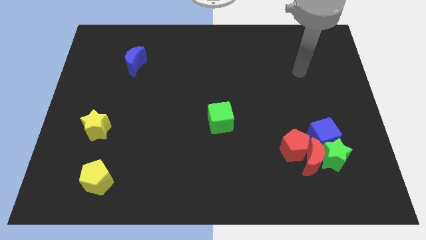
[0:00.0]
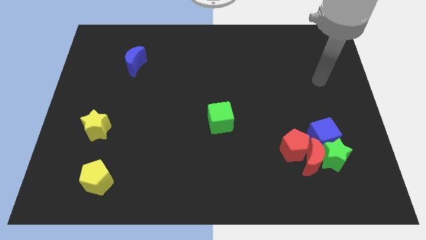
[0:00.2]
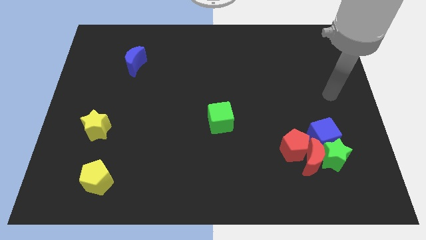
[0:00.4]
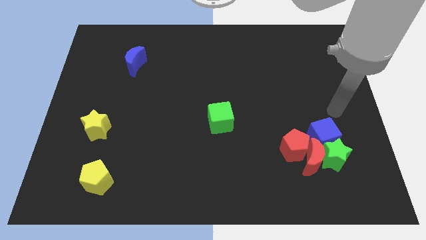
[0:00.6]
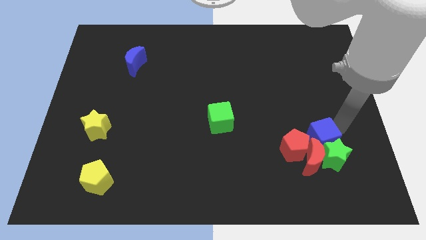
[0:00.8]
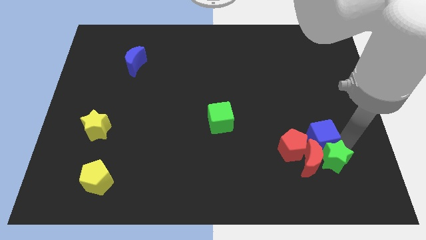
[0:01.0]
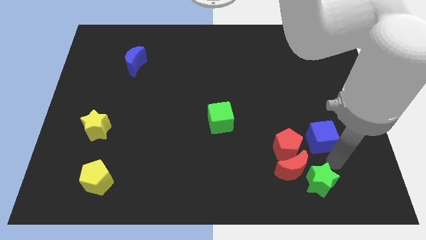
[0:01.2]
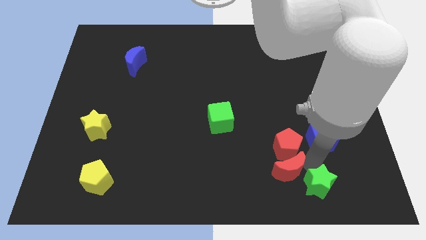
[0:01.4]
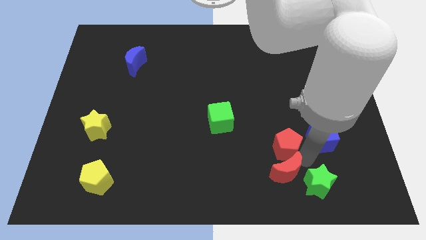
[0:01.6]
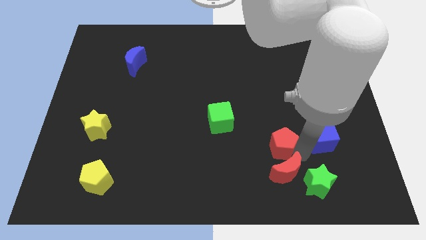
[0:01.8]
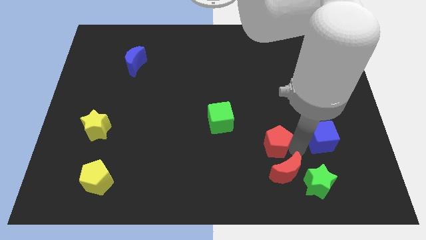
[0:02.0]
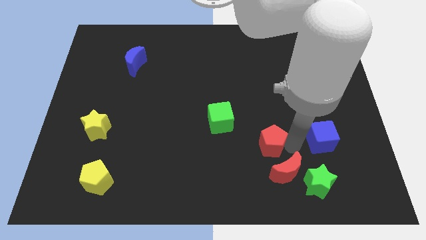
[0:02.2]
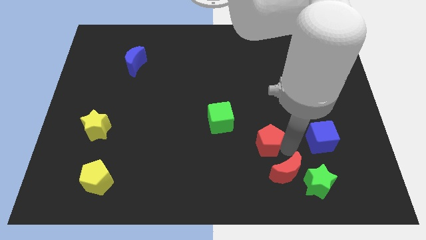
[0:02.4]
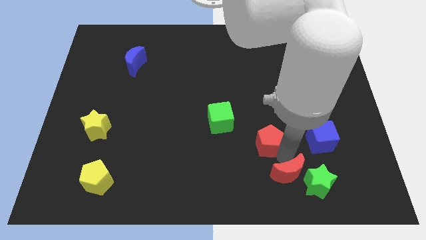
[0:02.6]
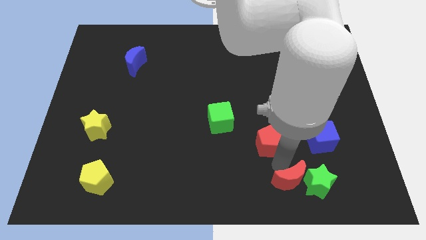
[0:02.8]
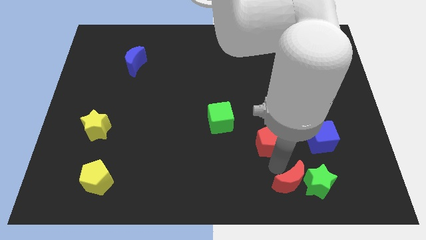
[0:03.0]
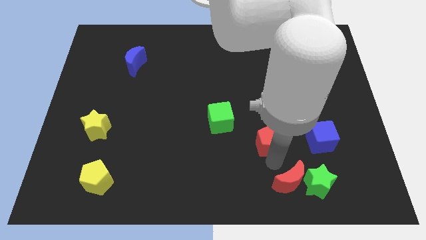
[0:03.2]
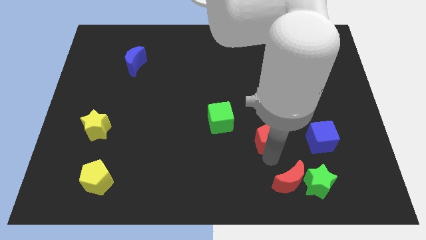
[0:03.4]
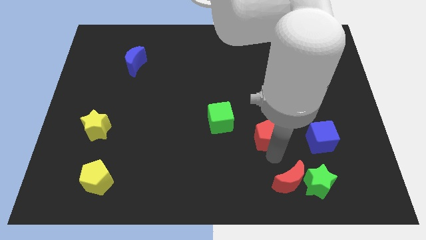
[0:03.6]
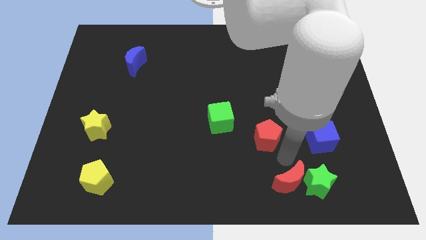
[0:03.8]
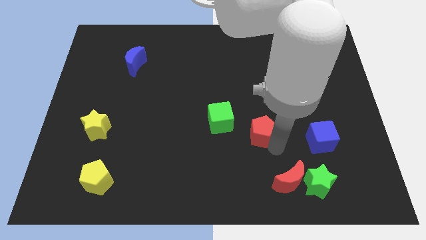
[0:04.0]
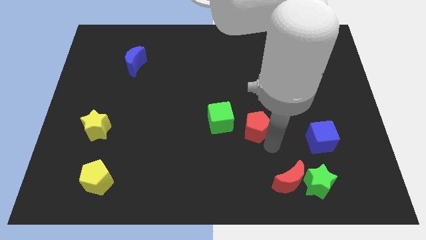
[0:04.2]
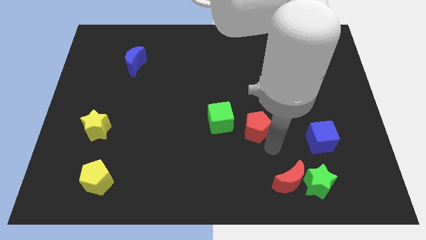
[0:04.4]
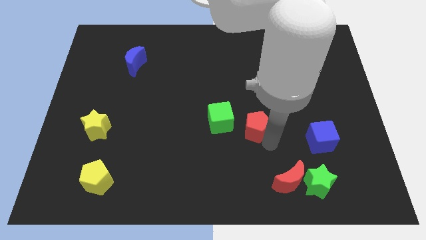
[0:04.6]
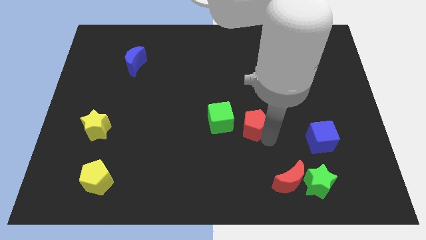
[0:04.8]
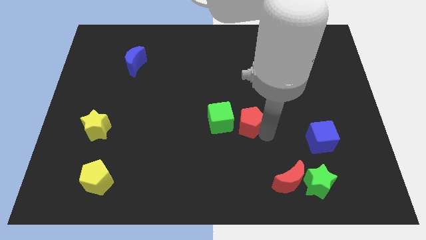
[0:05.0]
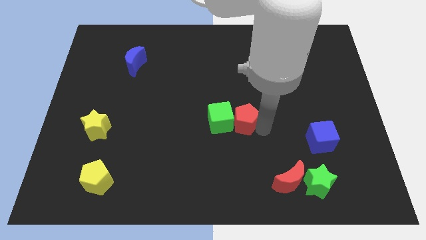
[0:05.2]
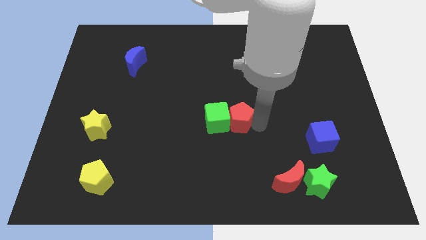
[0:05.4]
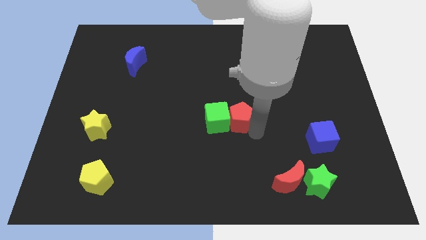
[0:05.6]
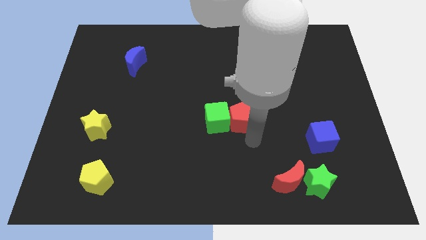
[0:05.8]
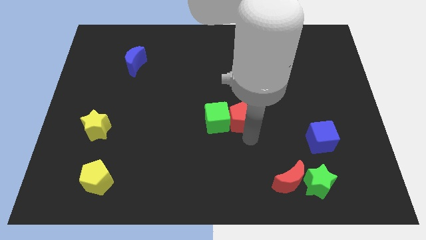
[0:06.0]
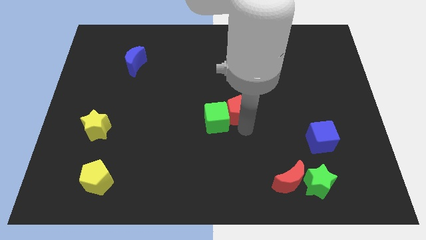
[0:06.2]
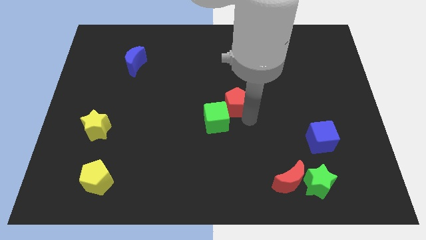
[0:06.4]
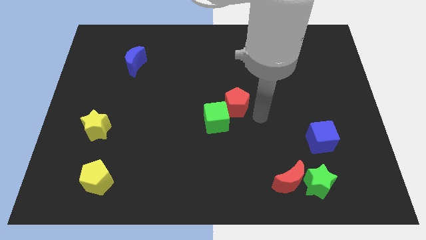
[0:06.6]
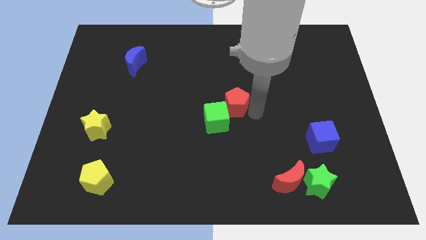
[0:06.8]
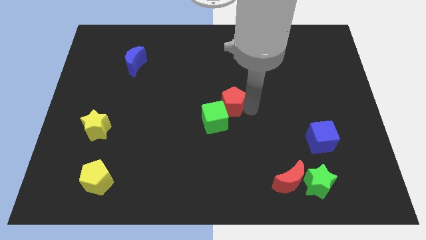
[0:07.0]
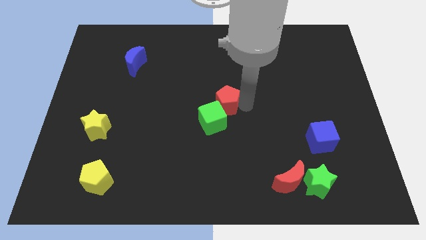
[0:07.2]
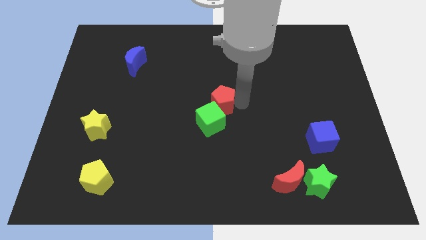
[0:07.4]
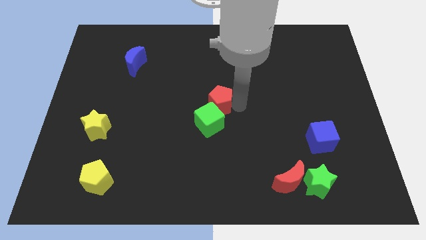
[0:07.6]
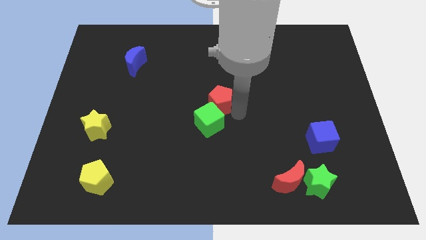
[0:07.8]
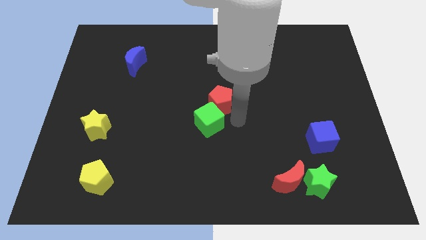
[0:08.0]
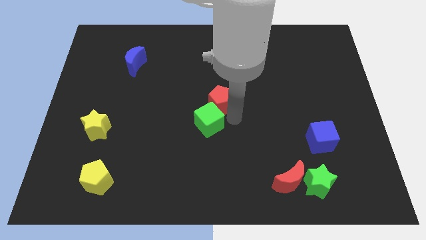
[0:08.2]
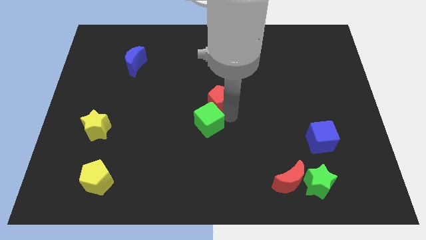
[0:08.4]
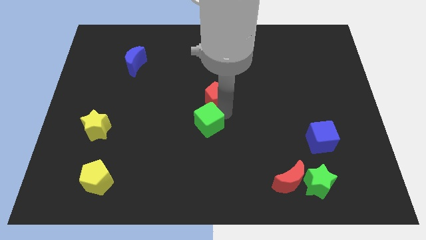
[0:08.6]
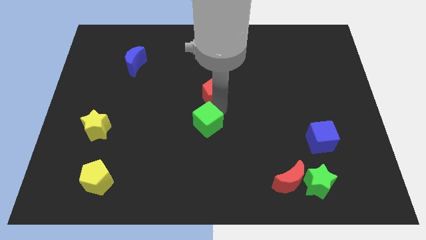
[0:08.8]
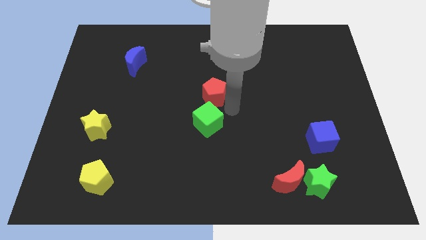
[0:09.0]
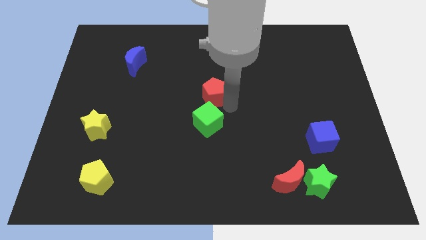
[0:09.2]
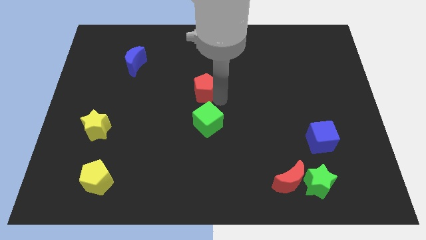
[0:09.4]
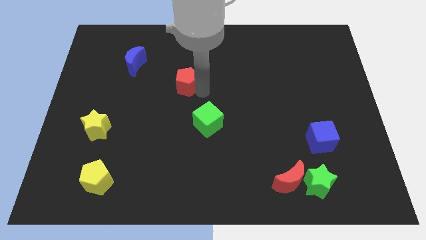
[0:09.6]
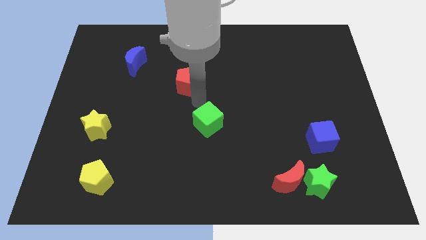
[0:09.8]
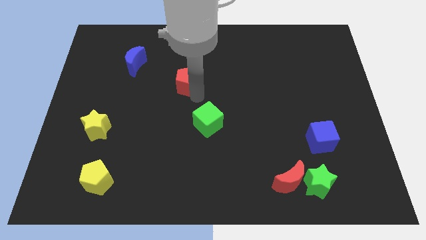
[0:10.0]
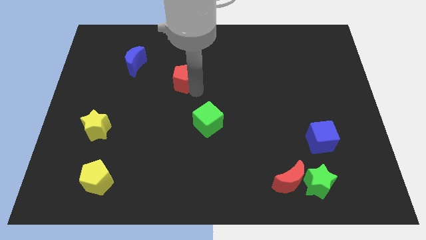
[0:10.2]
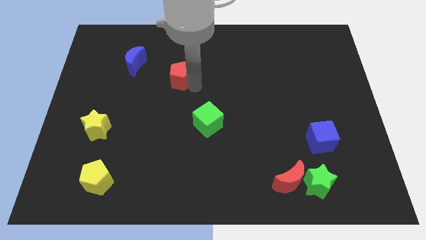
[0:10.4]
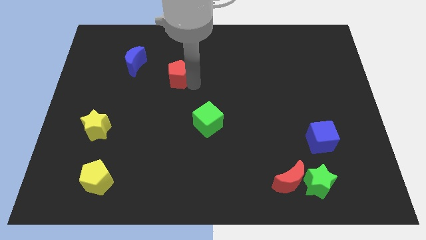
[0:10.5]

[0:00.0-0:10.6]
push the red pentagon to the right side of the blue moon

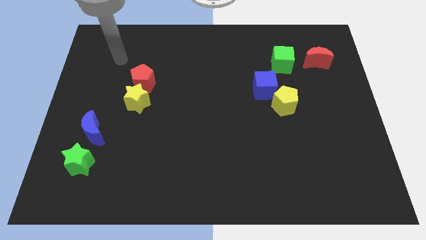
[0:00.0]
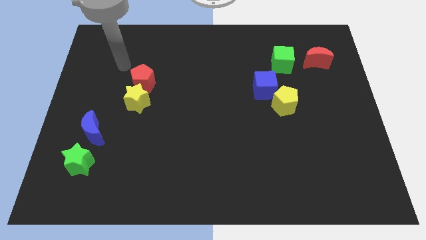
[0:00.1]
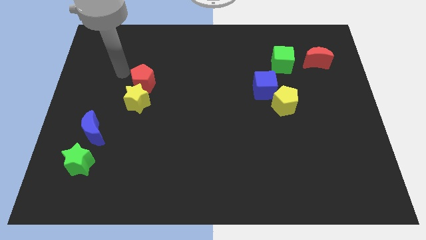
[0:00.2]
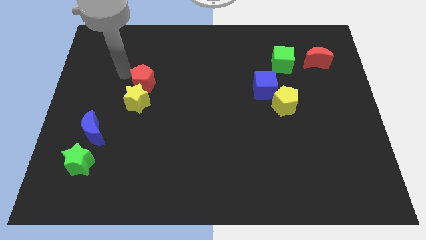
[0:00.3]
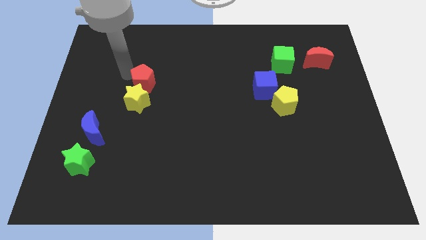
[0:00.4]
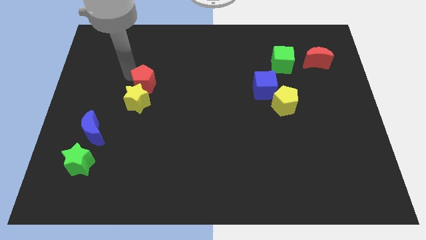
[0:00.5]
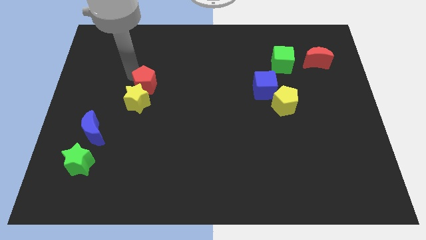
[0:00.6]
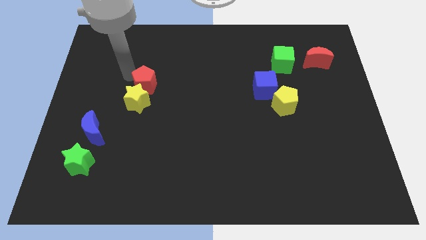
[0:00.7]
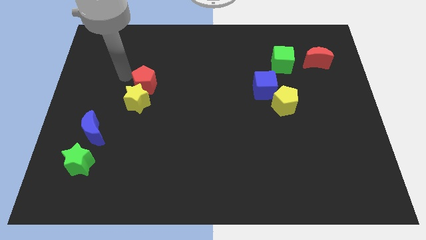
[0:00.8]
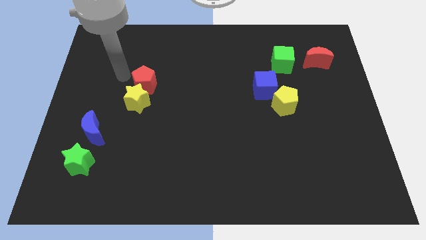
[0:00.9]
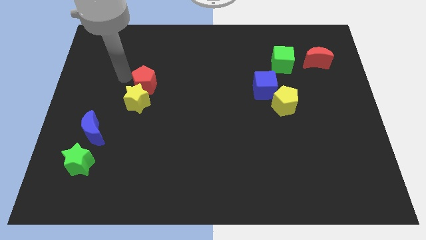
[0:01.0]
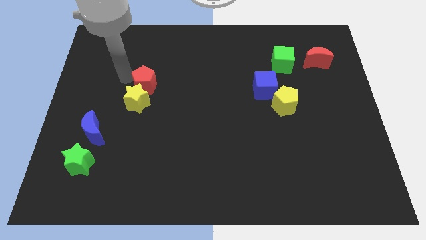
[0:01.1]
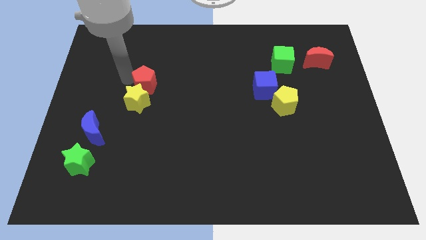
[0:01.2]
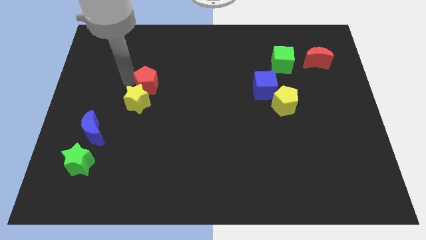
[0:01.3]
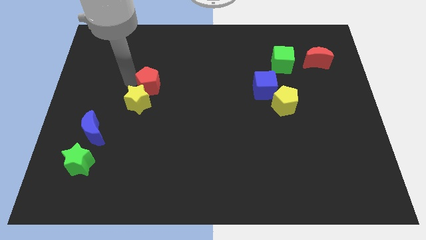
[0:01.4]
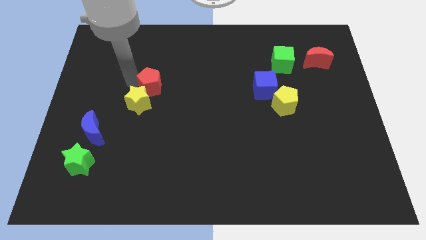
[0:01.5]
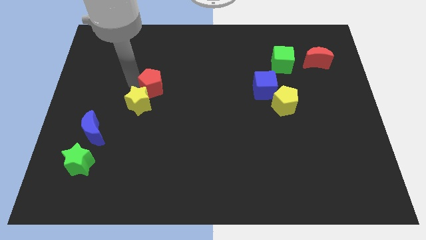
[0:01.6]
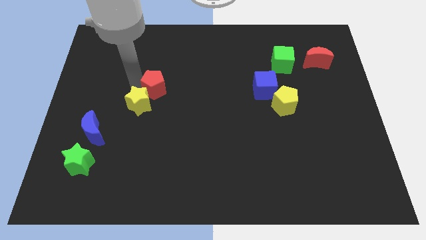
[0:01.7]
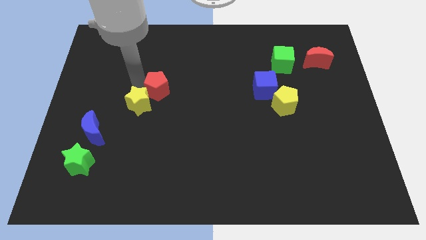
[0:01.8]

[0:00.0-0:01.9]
push the red pentagon to the right of the yellow star

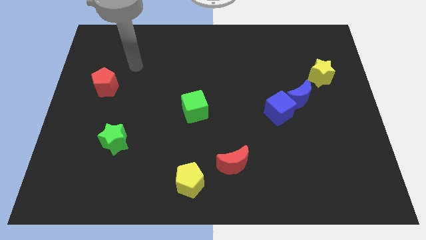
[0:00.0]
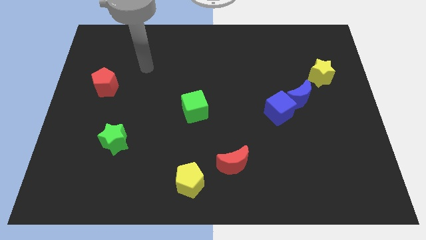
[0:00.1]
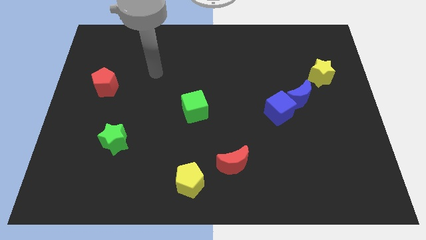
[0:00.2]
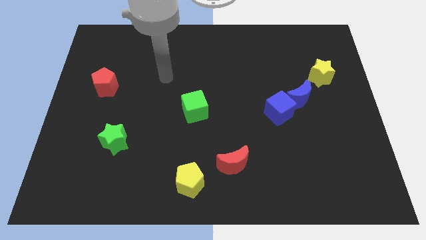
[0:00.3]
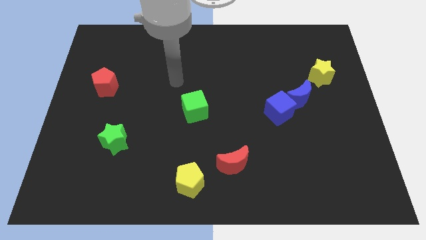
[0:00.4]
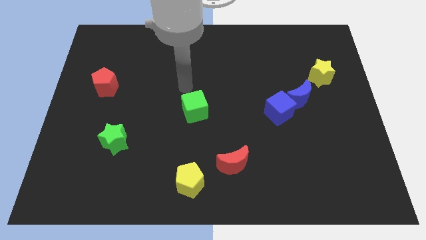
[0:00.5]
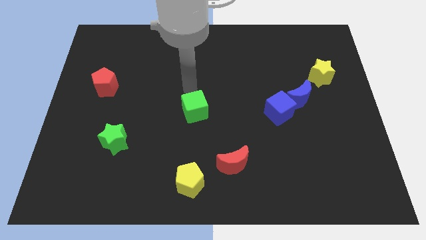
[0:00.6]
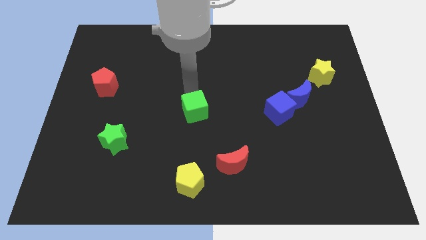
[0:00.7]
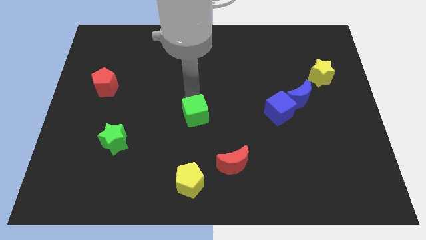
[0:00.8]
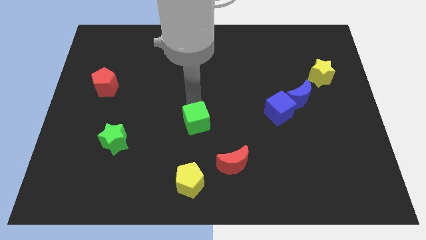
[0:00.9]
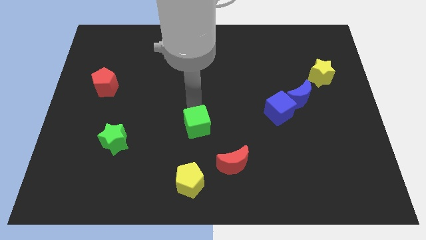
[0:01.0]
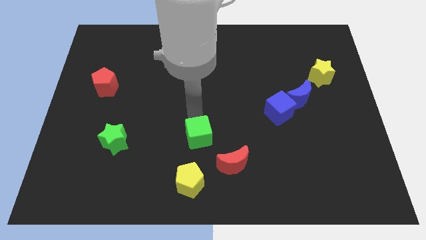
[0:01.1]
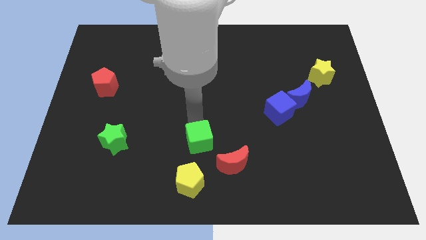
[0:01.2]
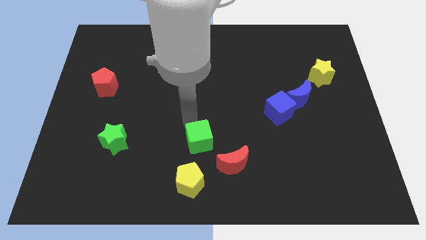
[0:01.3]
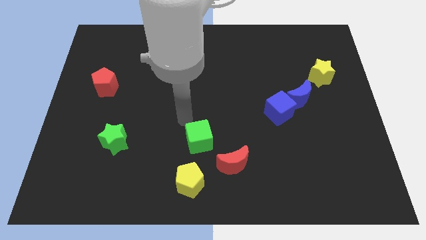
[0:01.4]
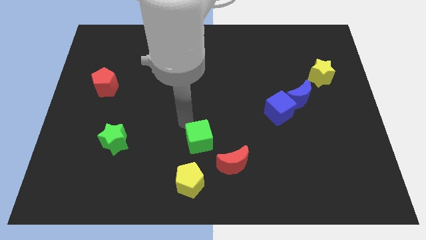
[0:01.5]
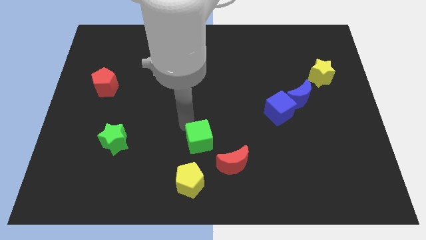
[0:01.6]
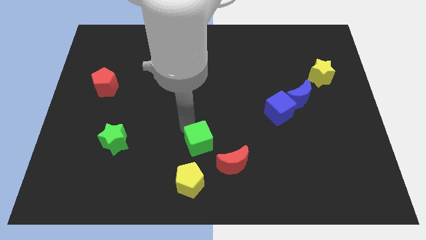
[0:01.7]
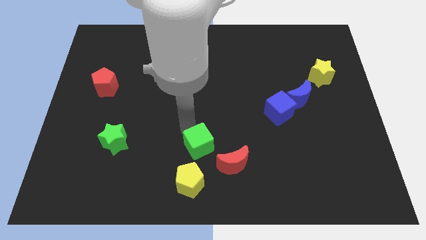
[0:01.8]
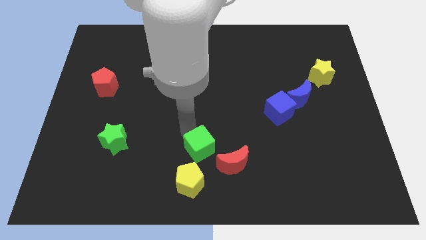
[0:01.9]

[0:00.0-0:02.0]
slide the green cube to the top right of the yellow pentagon
